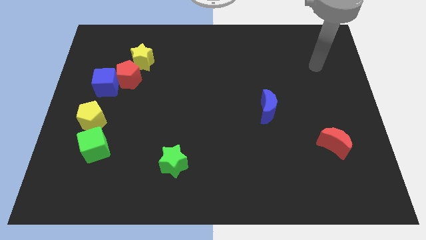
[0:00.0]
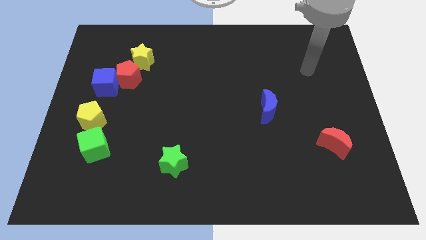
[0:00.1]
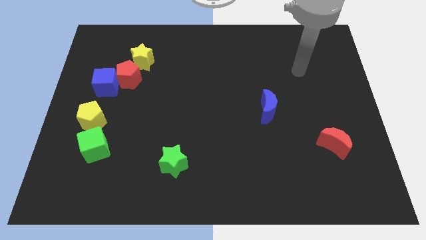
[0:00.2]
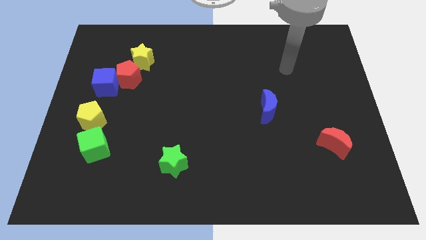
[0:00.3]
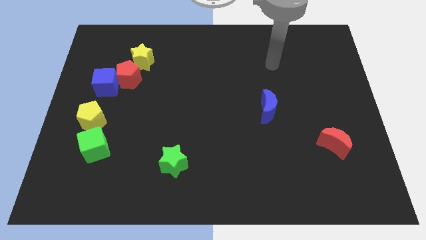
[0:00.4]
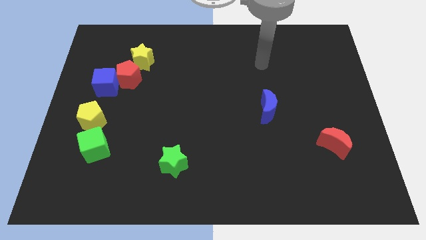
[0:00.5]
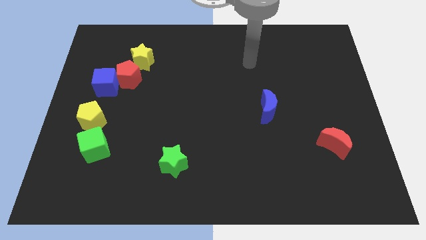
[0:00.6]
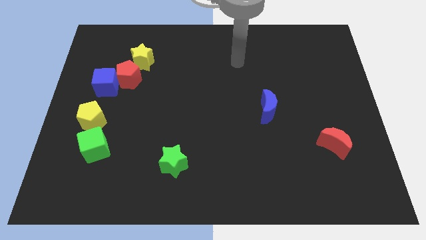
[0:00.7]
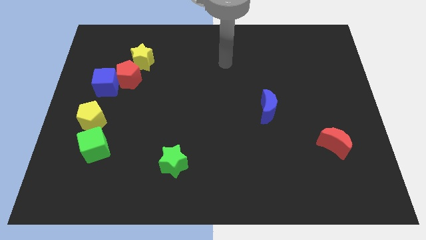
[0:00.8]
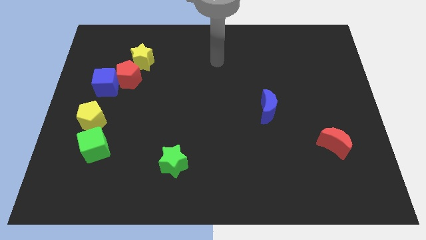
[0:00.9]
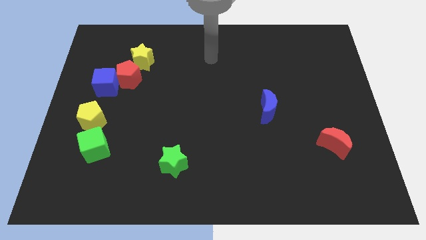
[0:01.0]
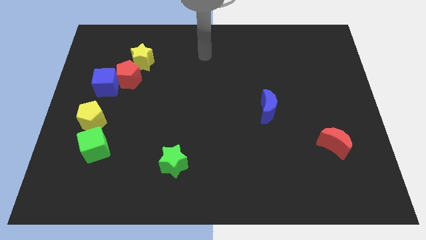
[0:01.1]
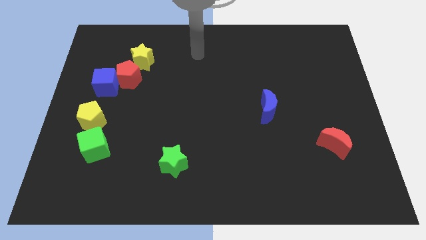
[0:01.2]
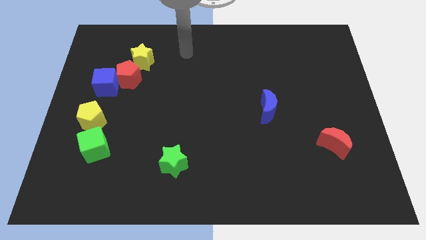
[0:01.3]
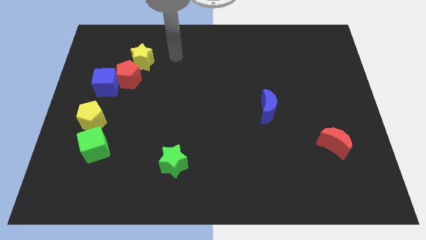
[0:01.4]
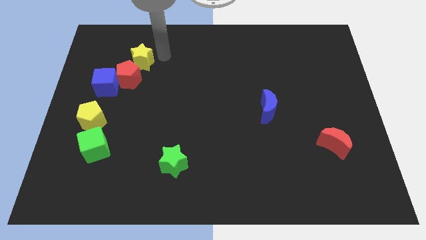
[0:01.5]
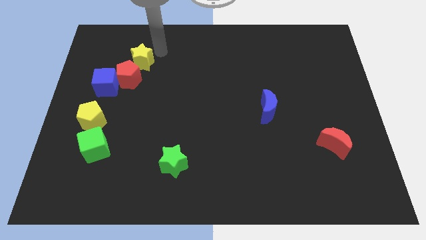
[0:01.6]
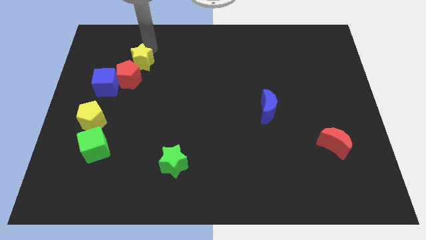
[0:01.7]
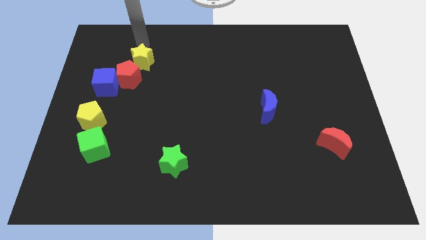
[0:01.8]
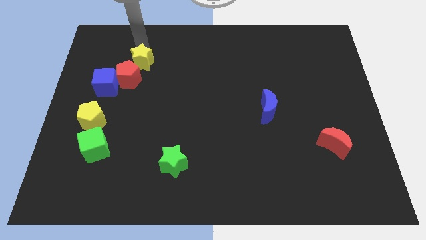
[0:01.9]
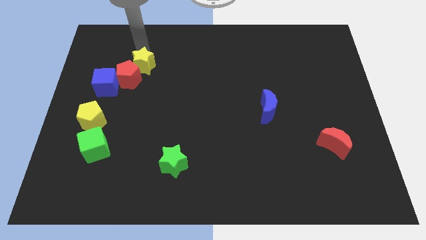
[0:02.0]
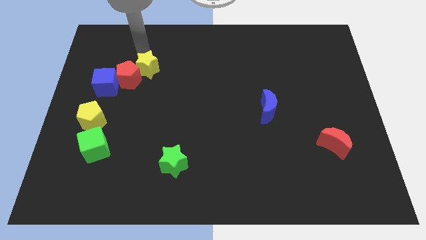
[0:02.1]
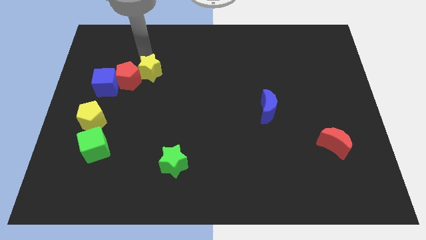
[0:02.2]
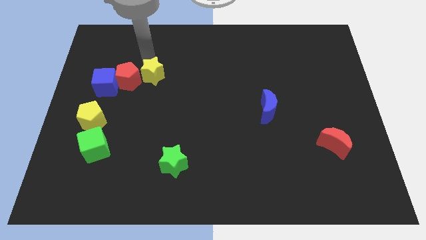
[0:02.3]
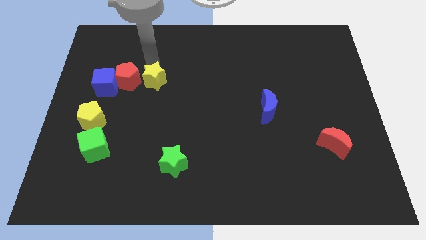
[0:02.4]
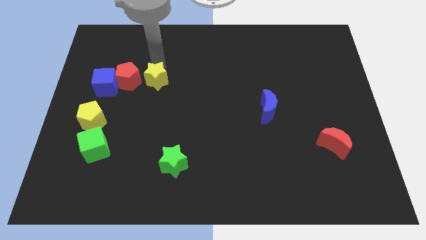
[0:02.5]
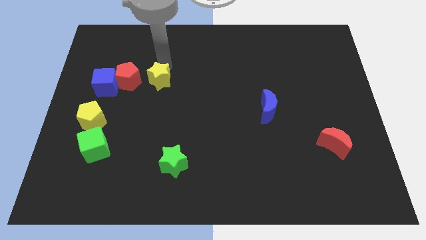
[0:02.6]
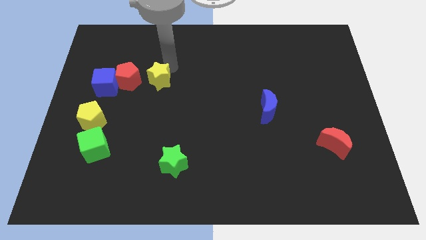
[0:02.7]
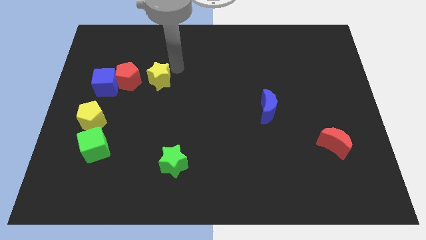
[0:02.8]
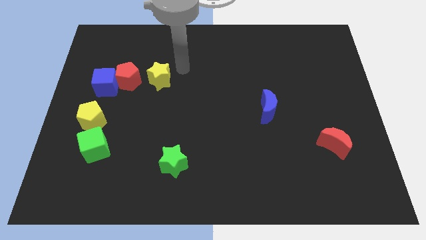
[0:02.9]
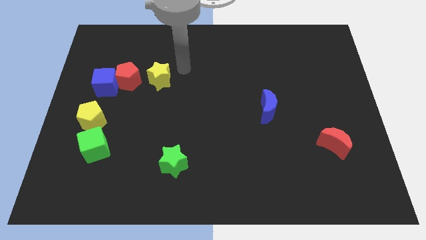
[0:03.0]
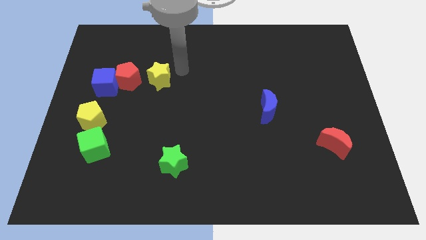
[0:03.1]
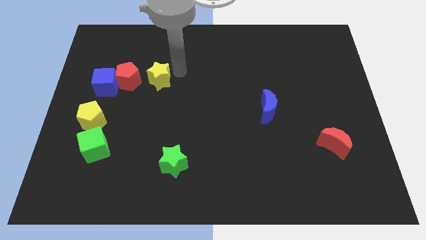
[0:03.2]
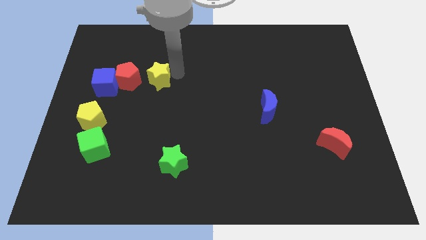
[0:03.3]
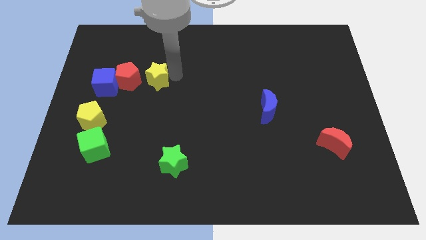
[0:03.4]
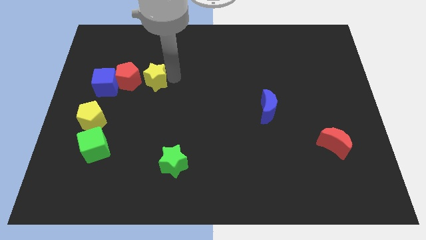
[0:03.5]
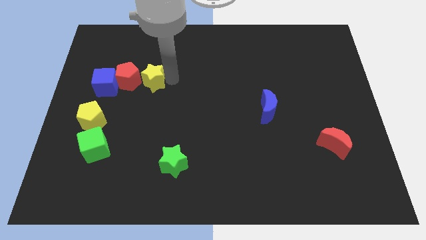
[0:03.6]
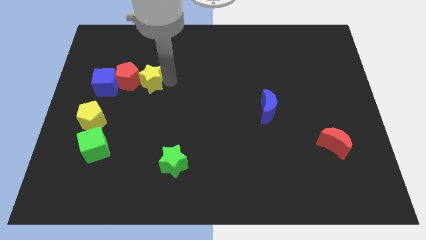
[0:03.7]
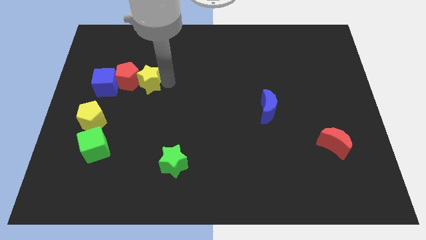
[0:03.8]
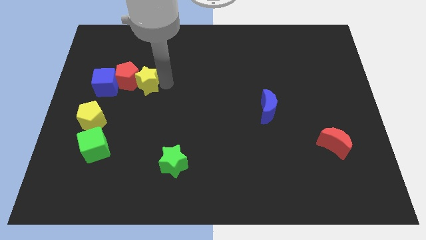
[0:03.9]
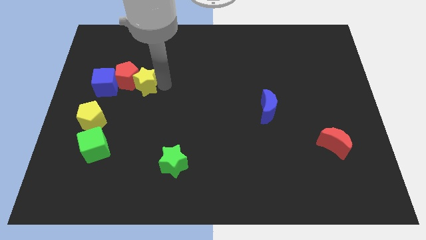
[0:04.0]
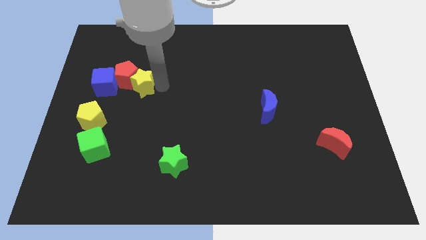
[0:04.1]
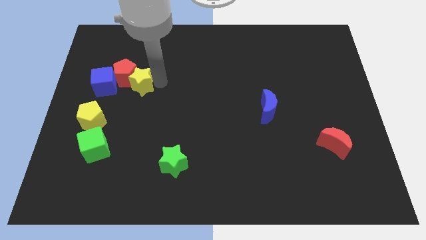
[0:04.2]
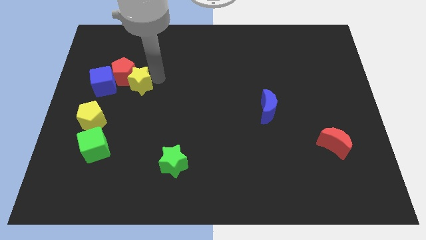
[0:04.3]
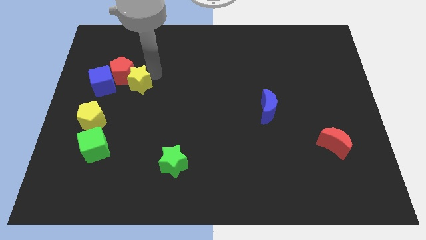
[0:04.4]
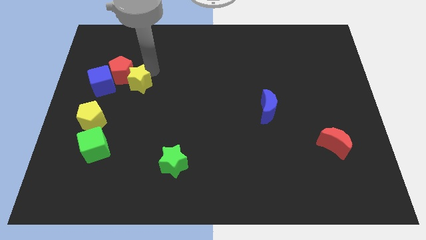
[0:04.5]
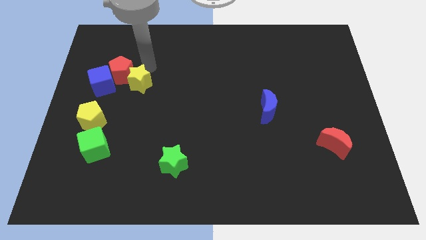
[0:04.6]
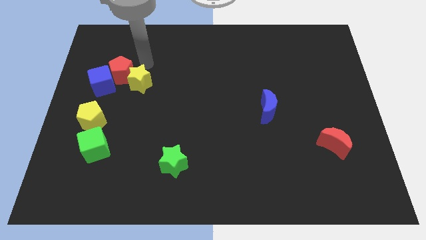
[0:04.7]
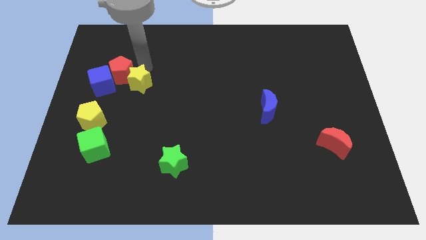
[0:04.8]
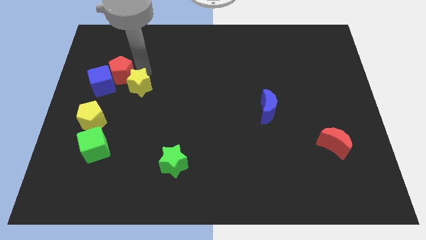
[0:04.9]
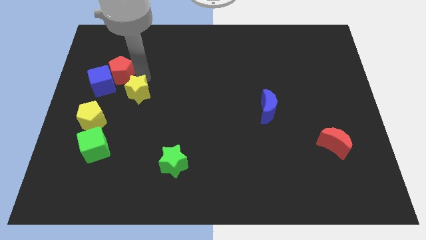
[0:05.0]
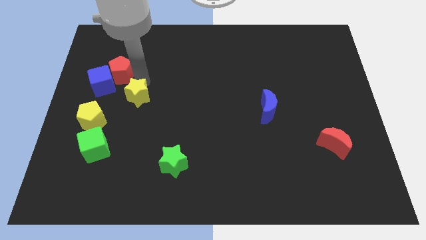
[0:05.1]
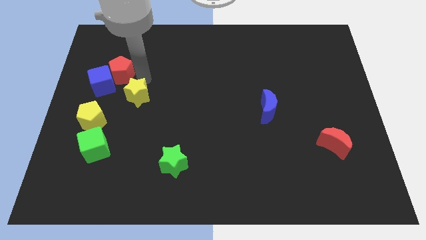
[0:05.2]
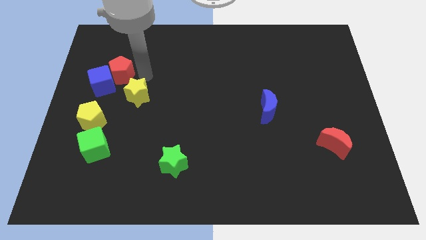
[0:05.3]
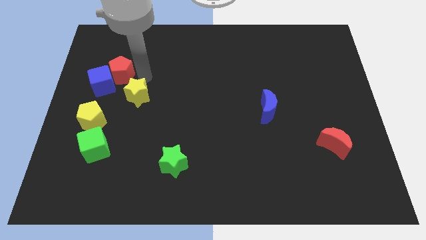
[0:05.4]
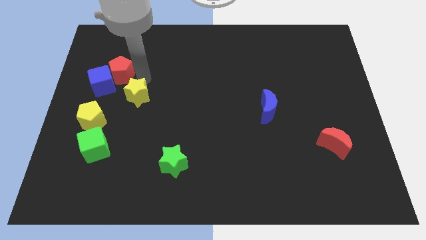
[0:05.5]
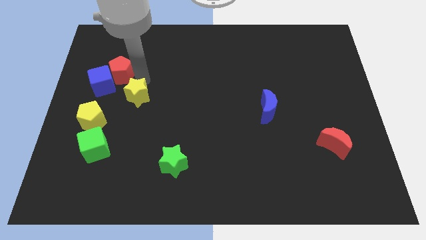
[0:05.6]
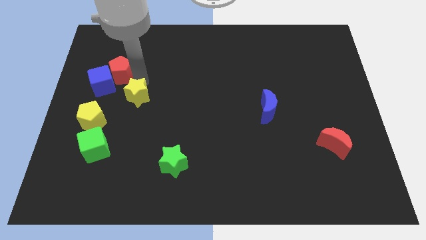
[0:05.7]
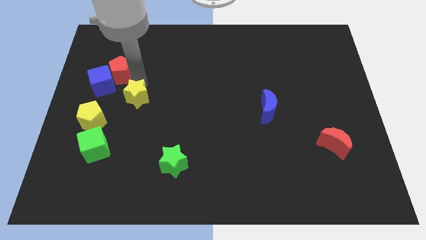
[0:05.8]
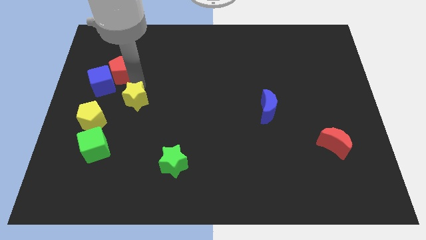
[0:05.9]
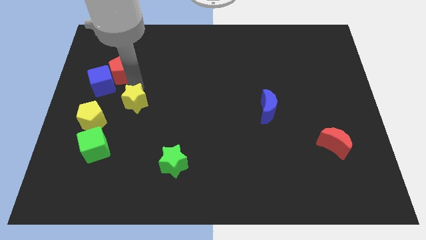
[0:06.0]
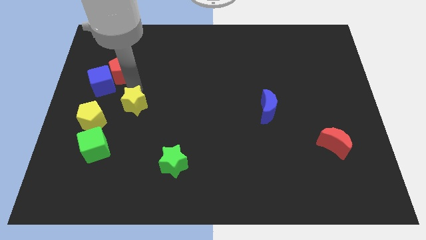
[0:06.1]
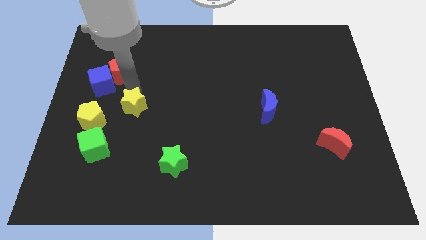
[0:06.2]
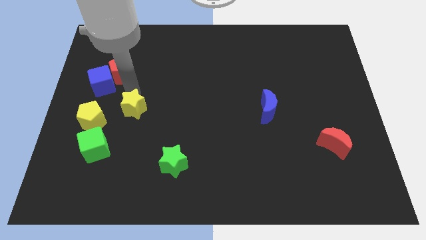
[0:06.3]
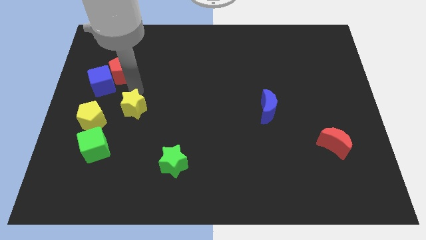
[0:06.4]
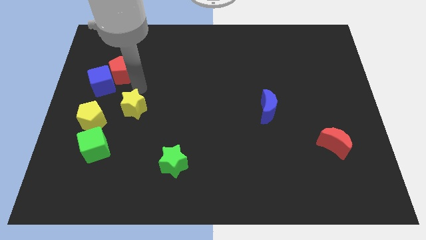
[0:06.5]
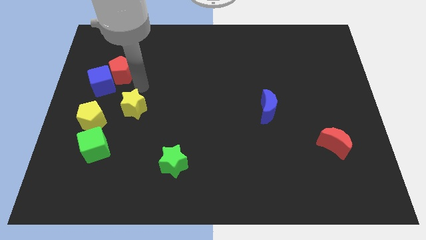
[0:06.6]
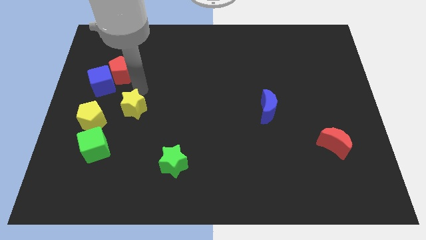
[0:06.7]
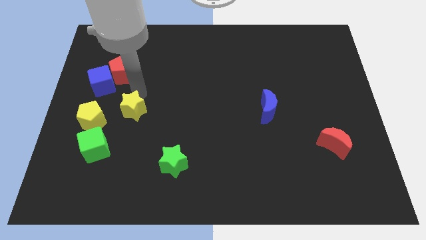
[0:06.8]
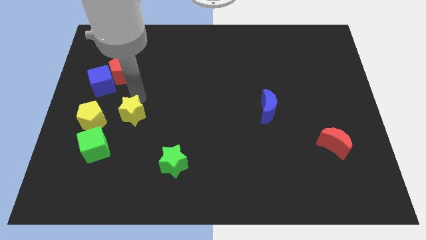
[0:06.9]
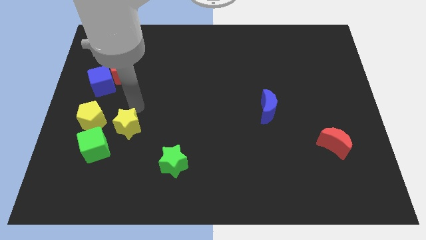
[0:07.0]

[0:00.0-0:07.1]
slide the yellow star downwards

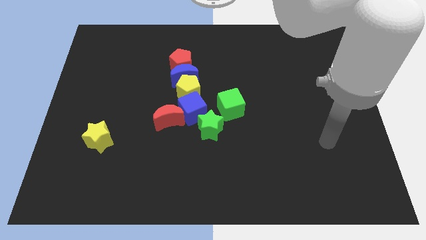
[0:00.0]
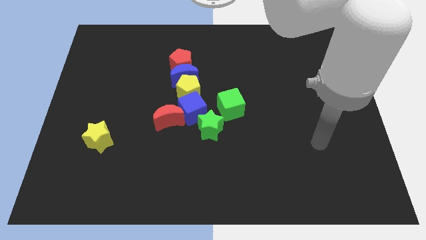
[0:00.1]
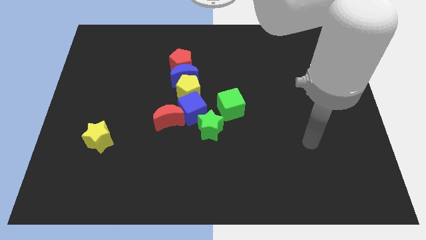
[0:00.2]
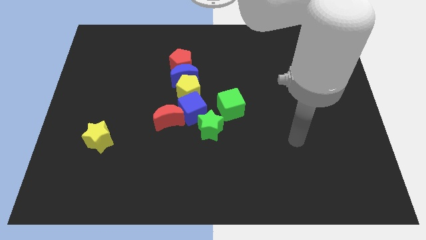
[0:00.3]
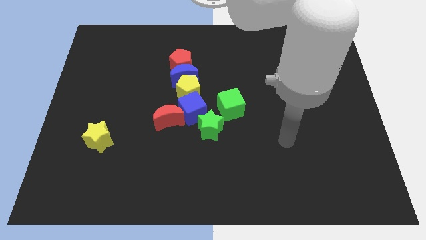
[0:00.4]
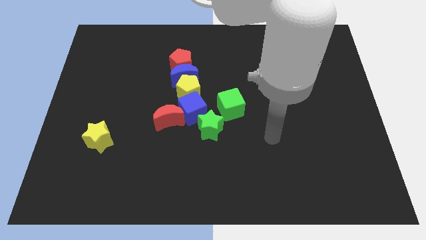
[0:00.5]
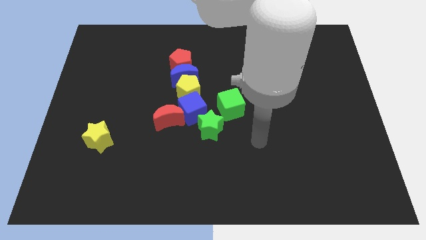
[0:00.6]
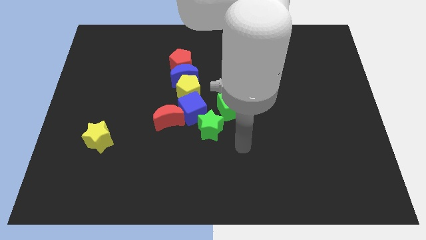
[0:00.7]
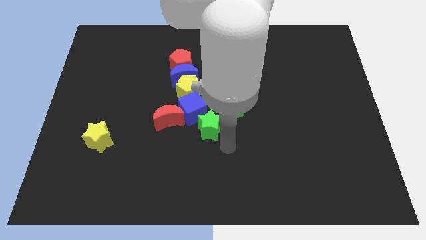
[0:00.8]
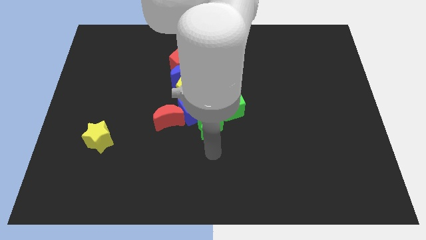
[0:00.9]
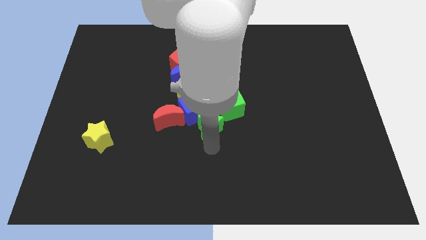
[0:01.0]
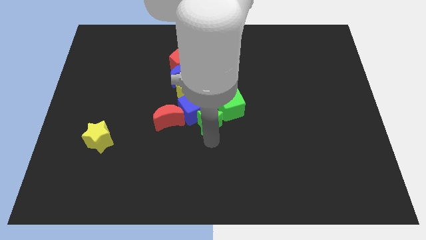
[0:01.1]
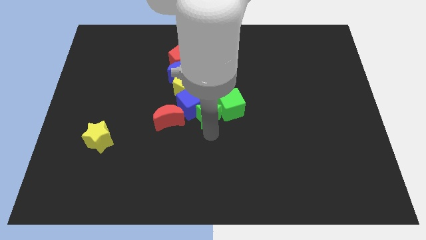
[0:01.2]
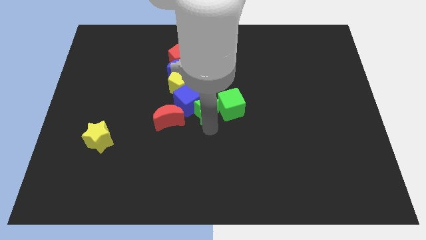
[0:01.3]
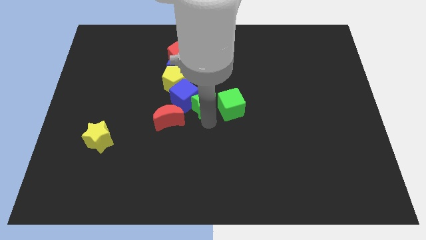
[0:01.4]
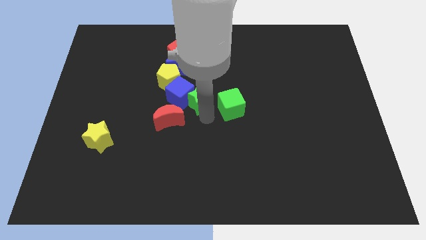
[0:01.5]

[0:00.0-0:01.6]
slide the green star upwards a little bit
